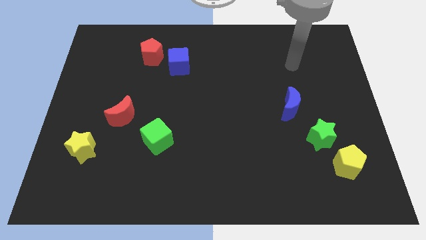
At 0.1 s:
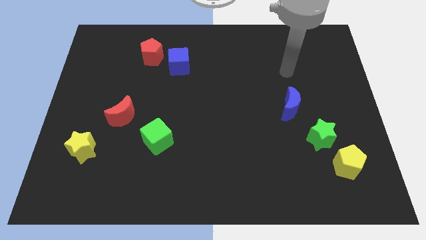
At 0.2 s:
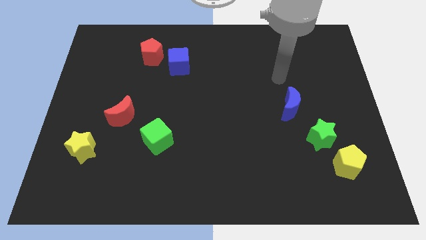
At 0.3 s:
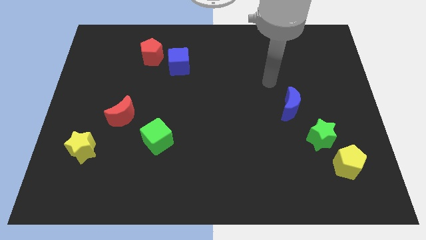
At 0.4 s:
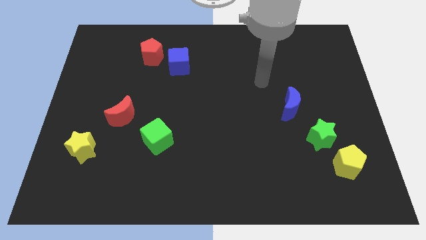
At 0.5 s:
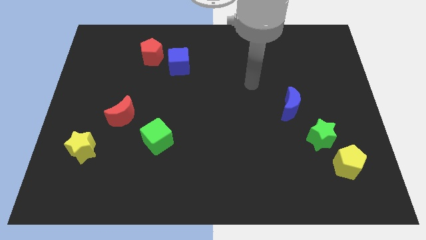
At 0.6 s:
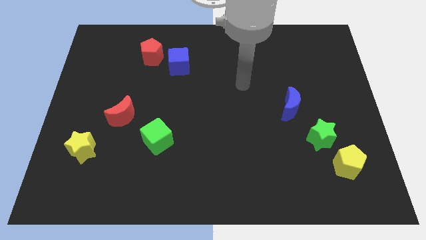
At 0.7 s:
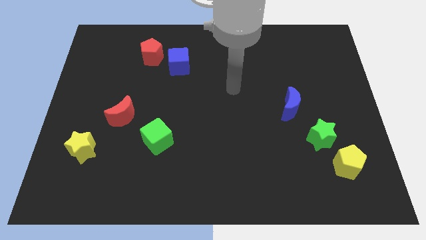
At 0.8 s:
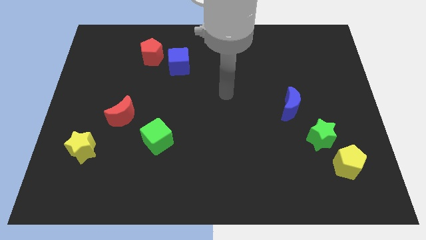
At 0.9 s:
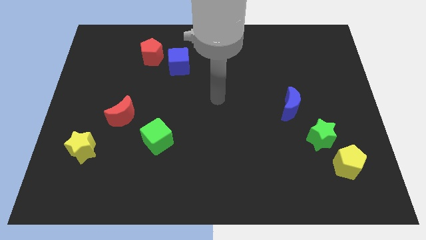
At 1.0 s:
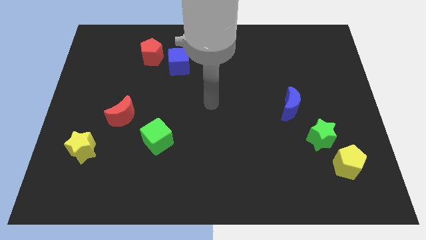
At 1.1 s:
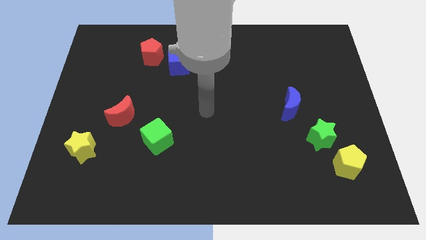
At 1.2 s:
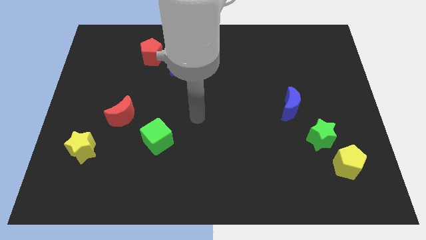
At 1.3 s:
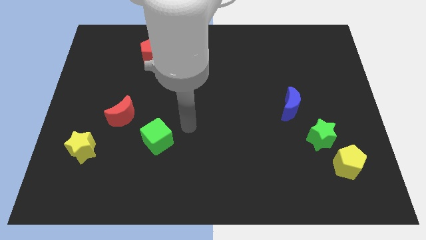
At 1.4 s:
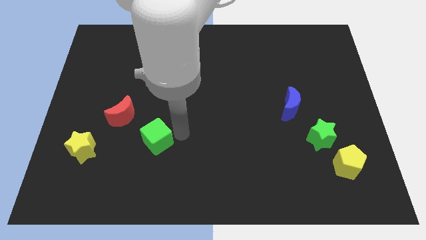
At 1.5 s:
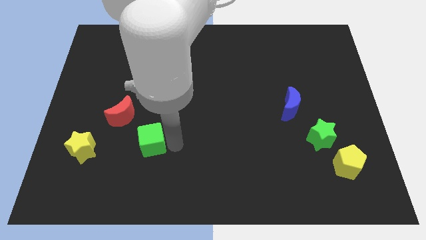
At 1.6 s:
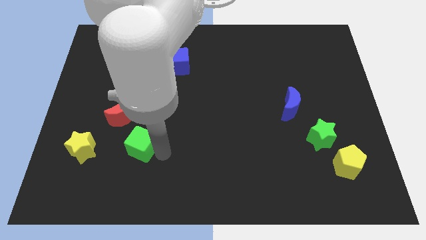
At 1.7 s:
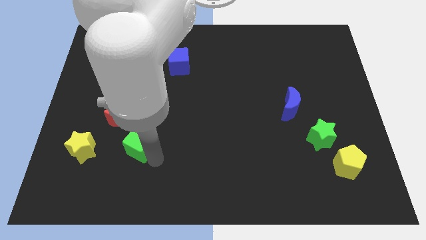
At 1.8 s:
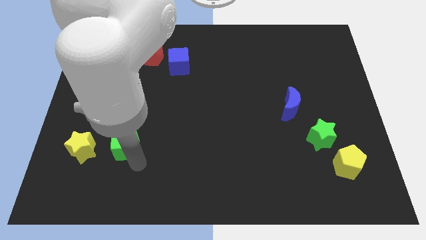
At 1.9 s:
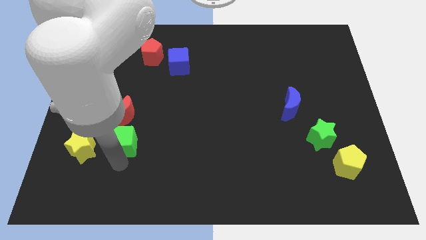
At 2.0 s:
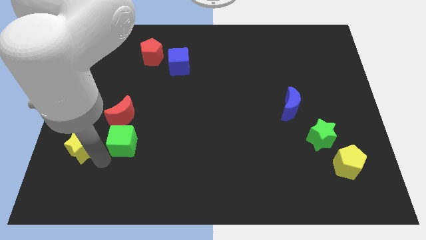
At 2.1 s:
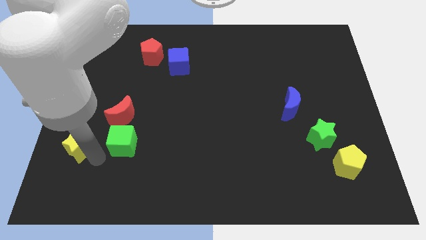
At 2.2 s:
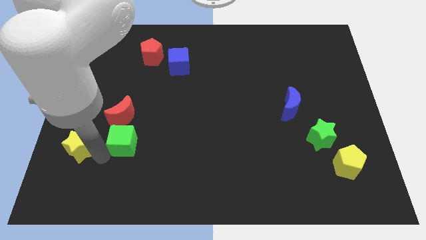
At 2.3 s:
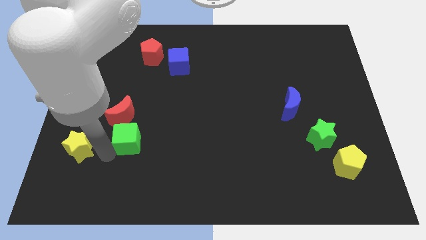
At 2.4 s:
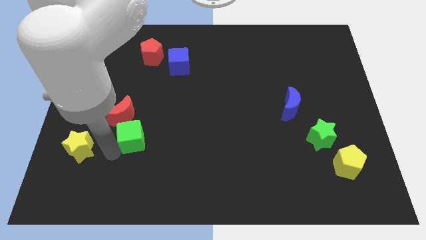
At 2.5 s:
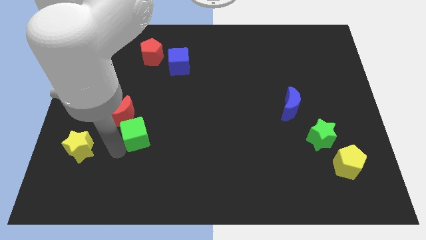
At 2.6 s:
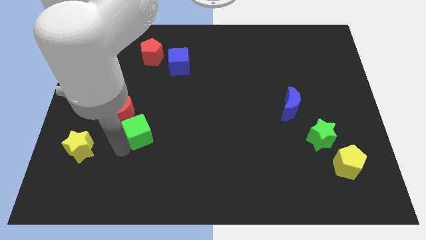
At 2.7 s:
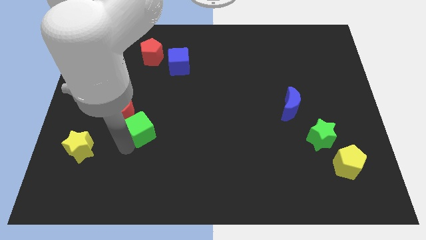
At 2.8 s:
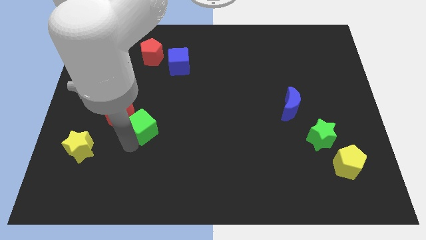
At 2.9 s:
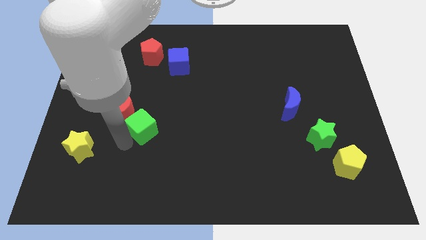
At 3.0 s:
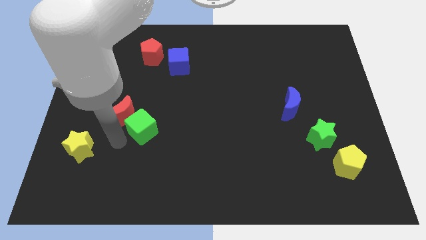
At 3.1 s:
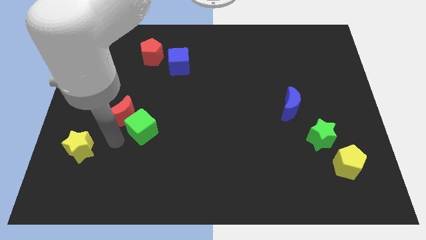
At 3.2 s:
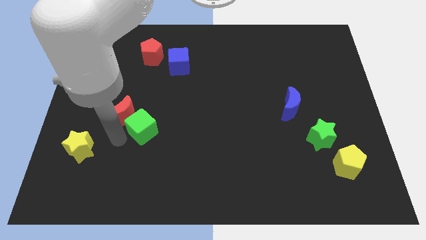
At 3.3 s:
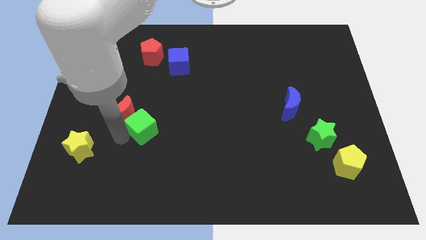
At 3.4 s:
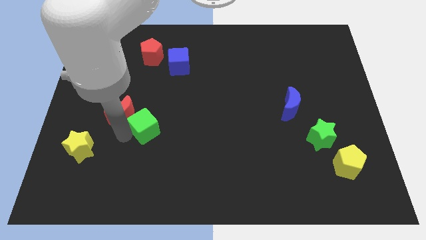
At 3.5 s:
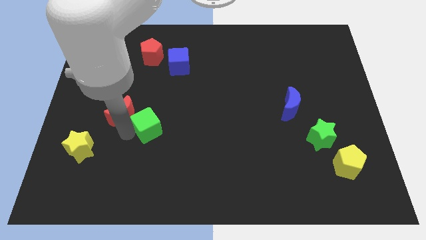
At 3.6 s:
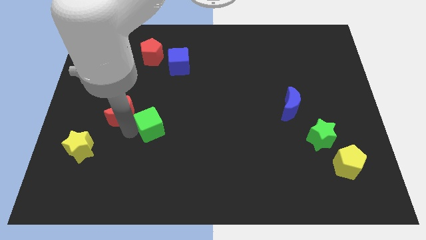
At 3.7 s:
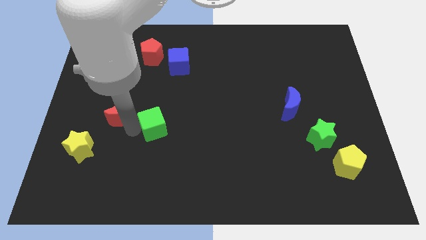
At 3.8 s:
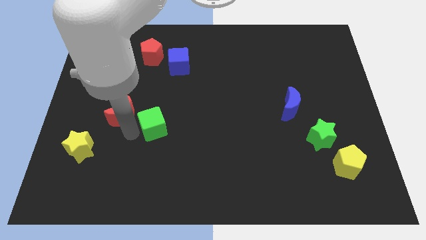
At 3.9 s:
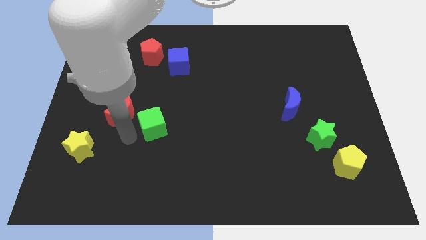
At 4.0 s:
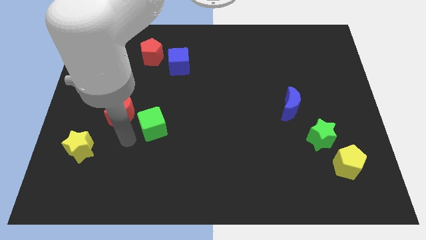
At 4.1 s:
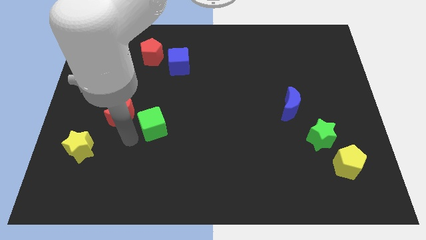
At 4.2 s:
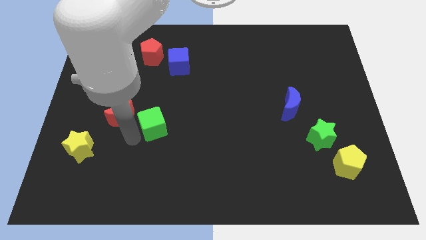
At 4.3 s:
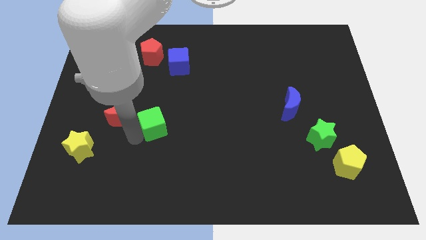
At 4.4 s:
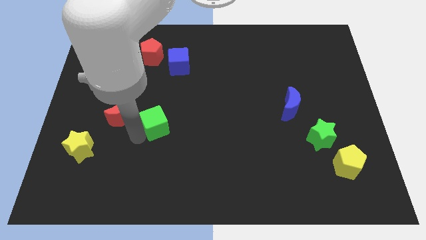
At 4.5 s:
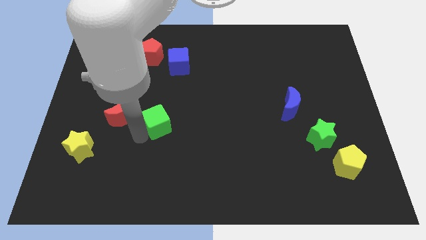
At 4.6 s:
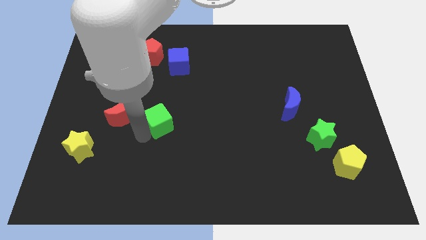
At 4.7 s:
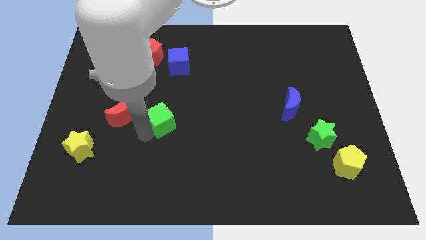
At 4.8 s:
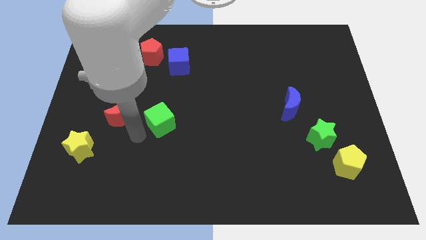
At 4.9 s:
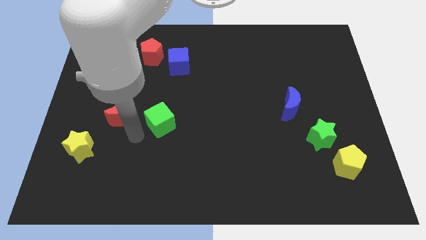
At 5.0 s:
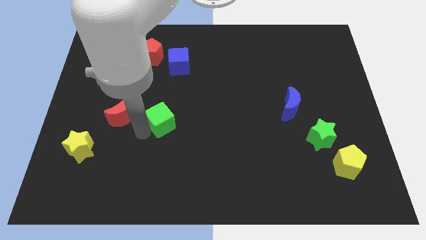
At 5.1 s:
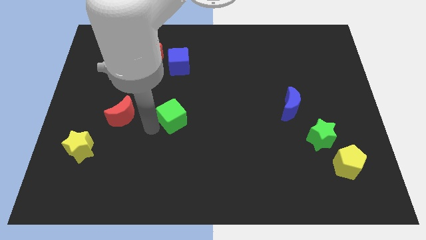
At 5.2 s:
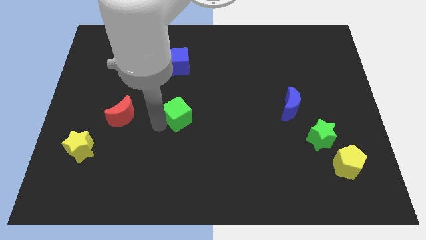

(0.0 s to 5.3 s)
slightly push the green cube diagonally upwards and right

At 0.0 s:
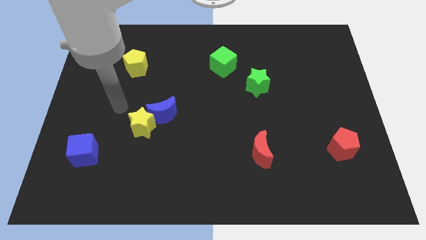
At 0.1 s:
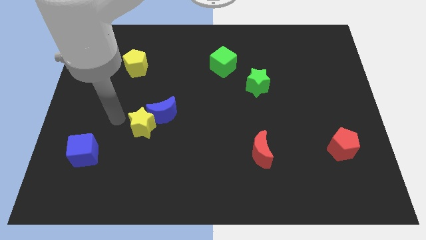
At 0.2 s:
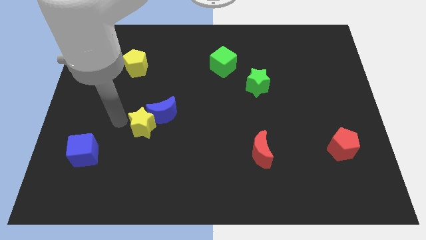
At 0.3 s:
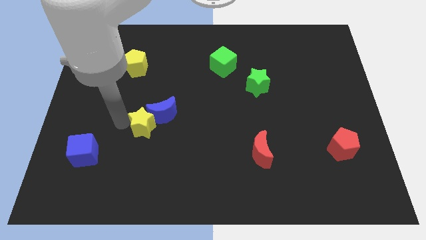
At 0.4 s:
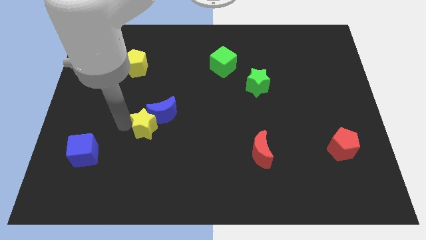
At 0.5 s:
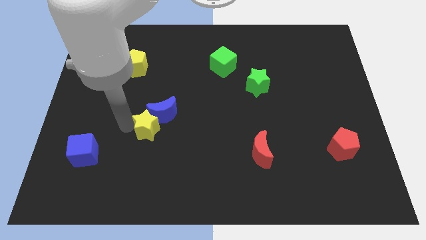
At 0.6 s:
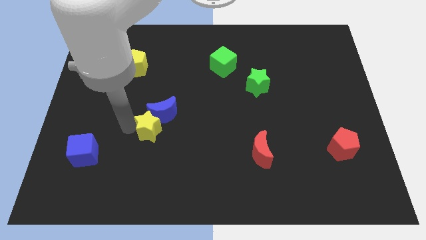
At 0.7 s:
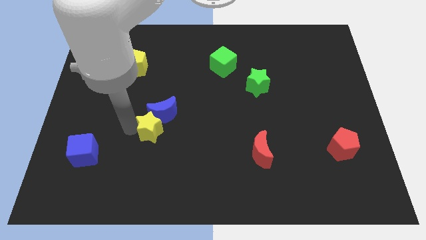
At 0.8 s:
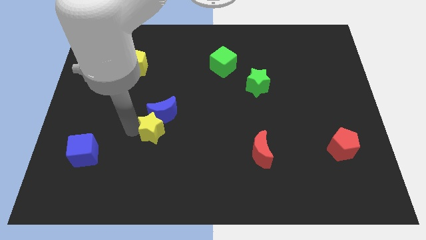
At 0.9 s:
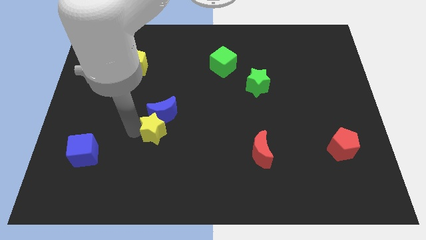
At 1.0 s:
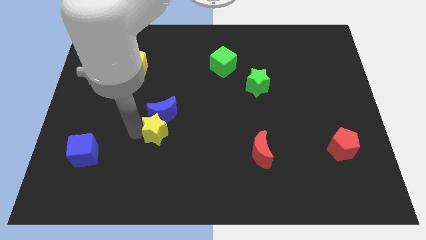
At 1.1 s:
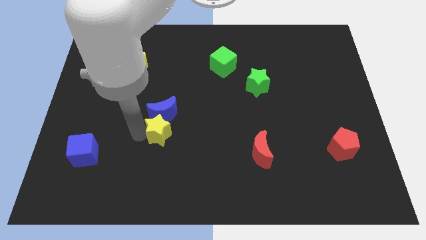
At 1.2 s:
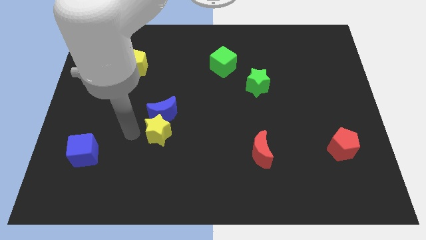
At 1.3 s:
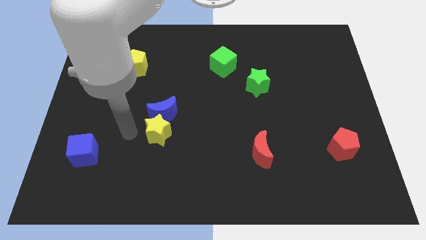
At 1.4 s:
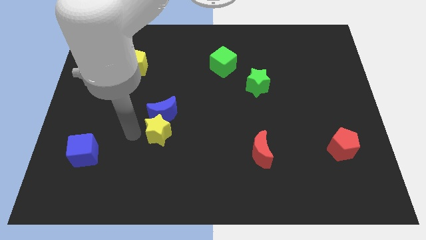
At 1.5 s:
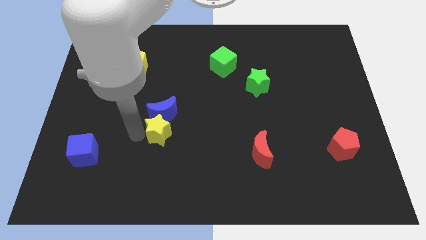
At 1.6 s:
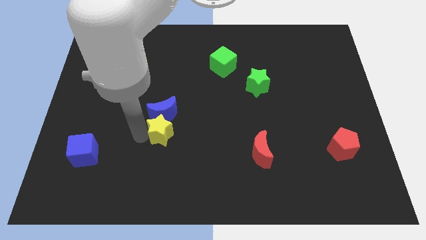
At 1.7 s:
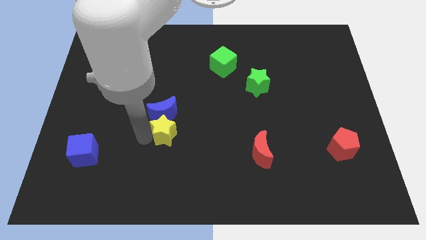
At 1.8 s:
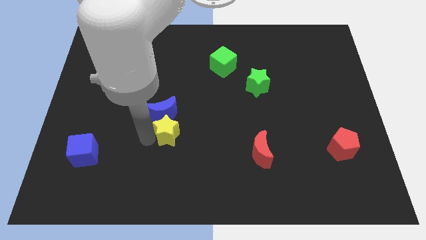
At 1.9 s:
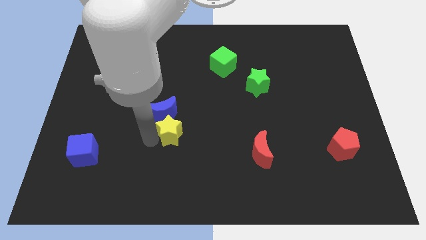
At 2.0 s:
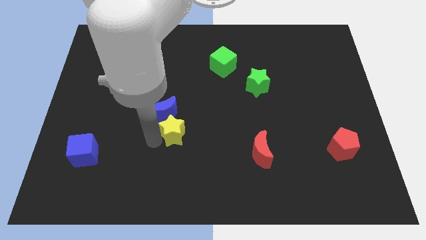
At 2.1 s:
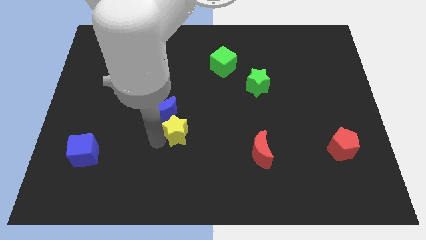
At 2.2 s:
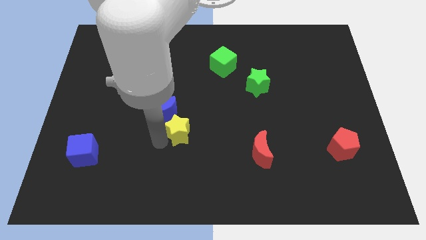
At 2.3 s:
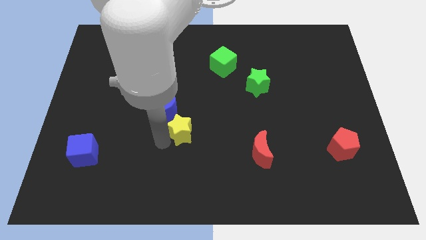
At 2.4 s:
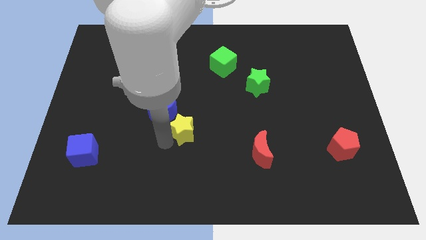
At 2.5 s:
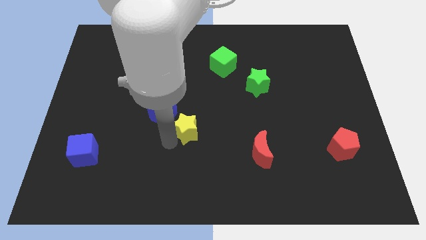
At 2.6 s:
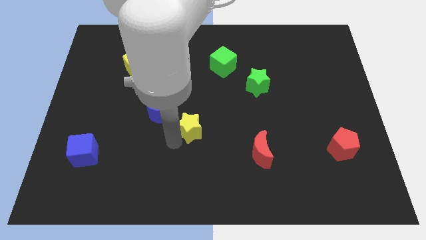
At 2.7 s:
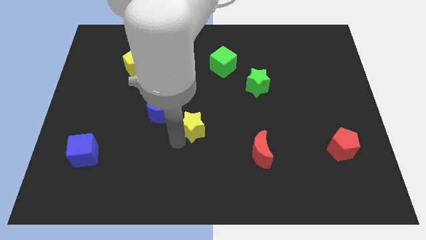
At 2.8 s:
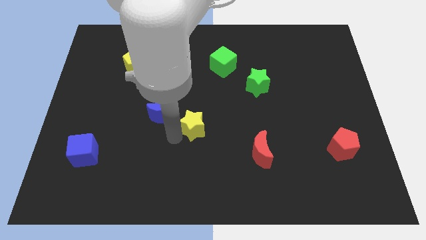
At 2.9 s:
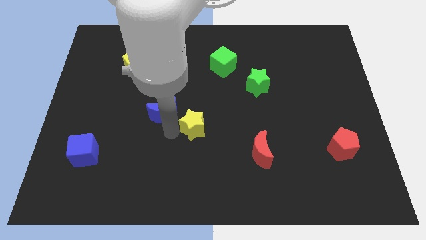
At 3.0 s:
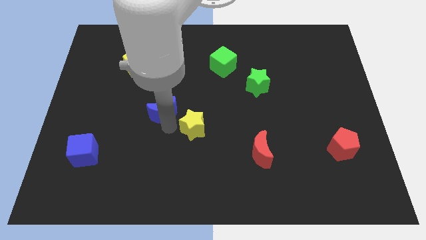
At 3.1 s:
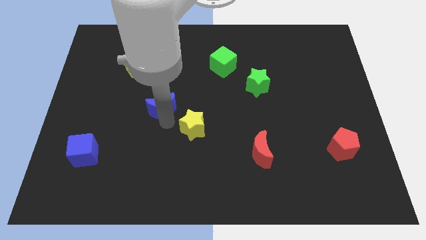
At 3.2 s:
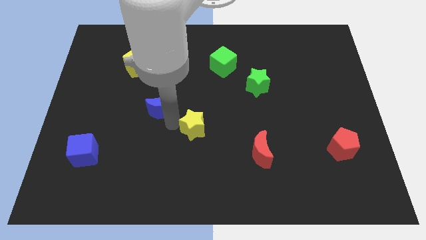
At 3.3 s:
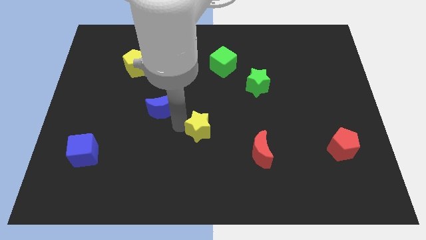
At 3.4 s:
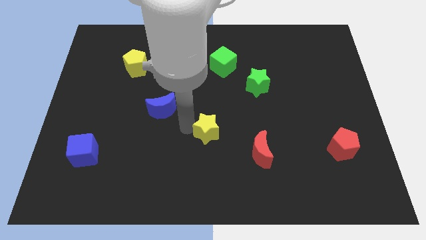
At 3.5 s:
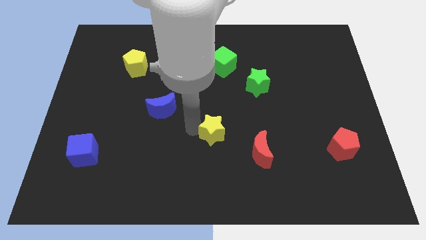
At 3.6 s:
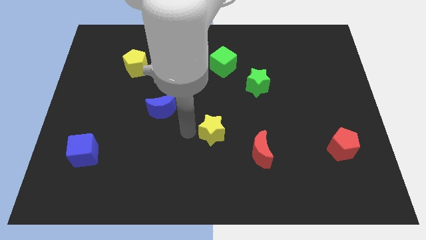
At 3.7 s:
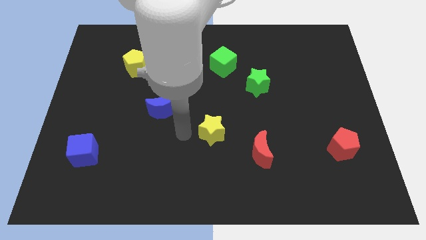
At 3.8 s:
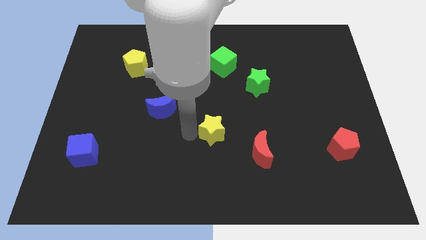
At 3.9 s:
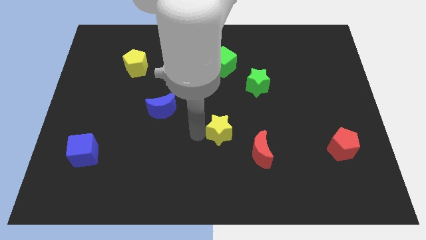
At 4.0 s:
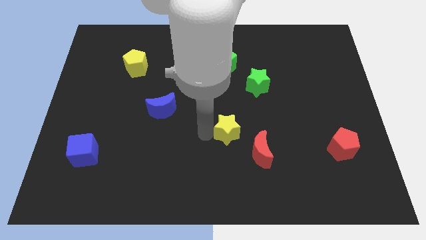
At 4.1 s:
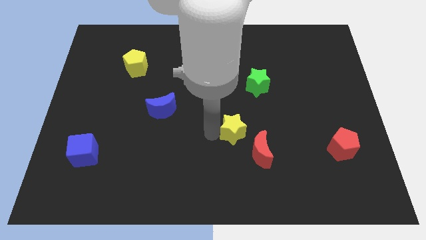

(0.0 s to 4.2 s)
move the yellow star right
